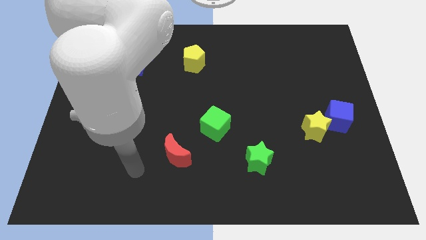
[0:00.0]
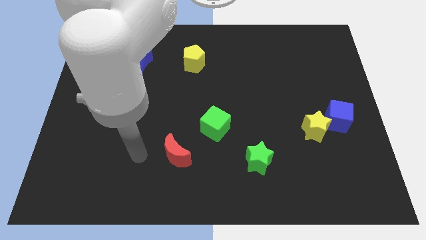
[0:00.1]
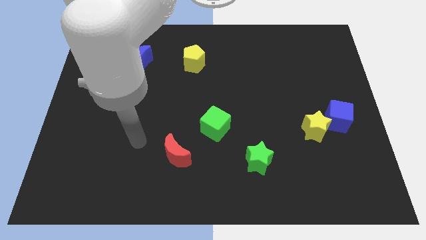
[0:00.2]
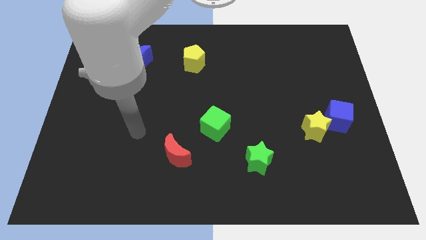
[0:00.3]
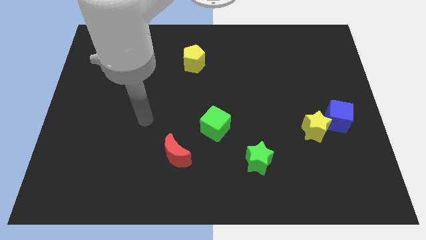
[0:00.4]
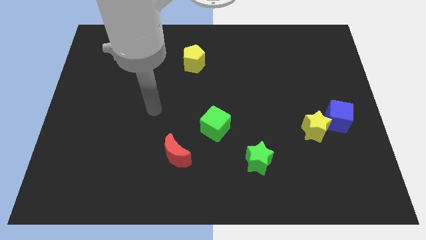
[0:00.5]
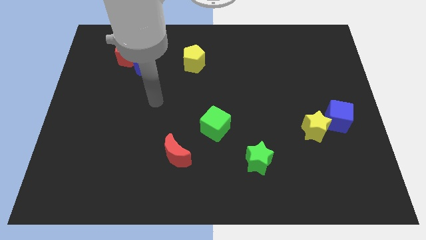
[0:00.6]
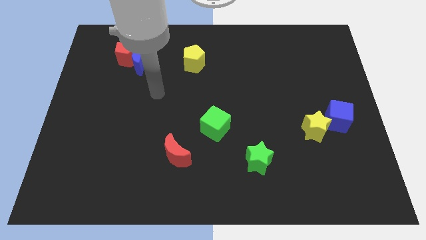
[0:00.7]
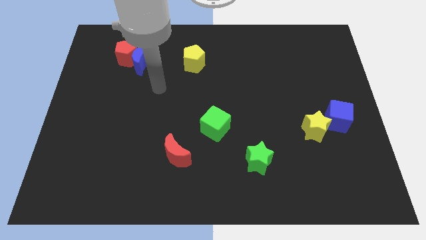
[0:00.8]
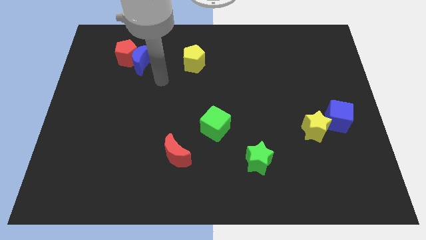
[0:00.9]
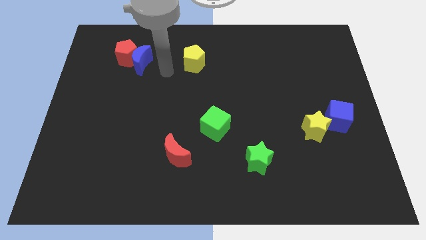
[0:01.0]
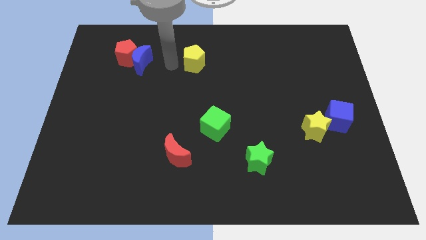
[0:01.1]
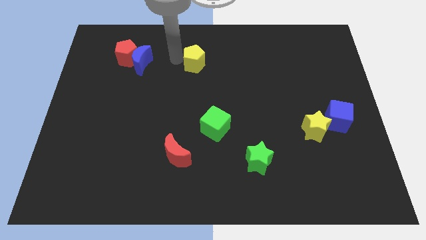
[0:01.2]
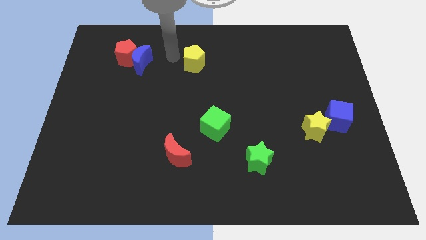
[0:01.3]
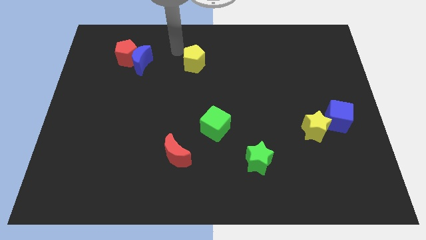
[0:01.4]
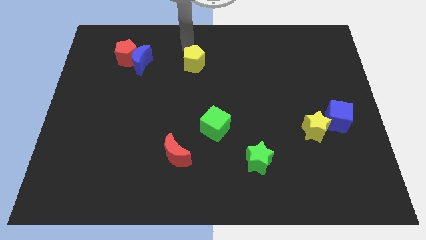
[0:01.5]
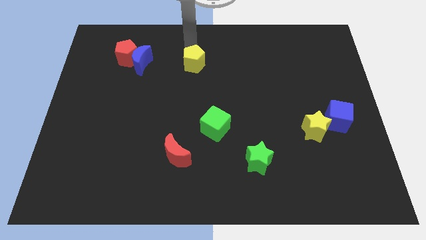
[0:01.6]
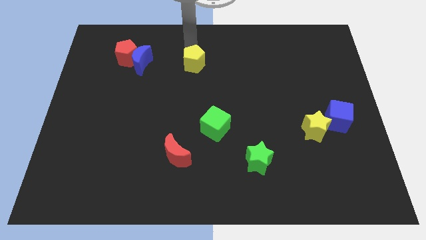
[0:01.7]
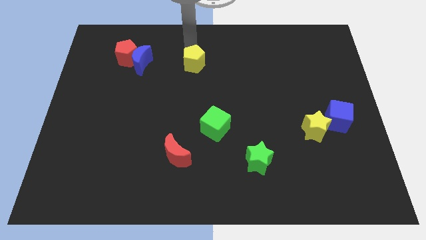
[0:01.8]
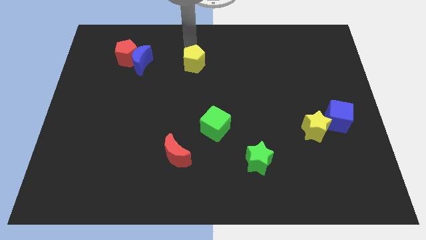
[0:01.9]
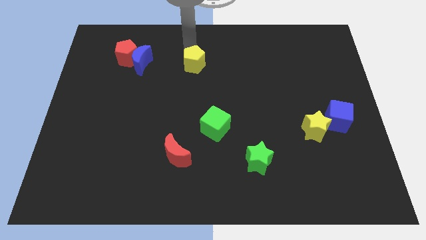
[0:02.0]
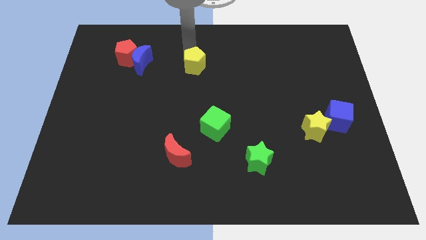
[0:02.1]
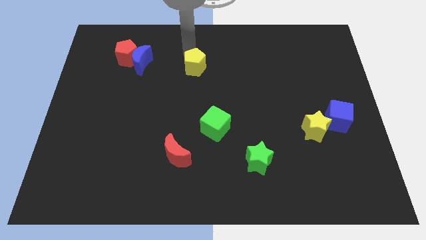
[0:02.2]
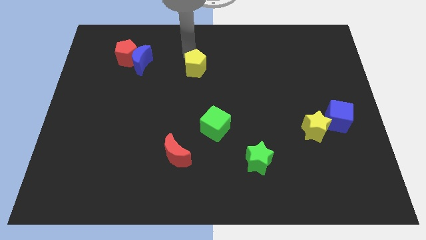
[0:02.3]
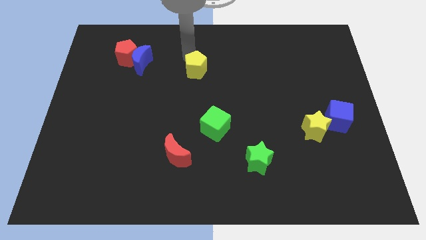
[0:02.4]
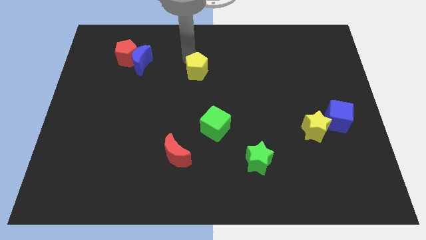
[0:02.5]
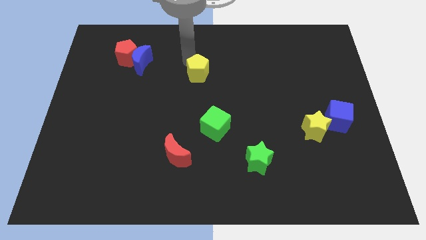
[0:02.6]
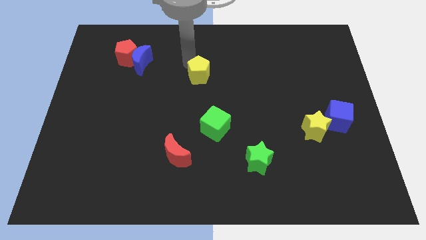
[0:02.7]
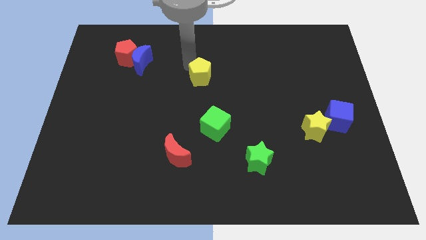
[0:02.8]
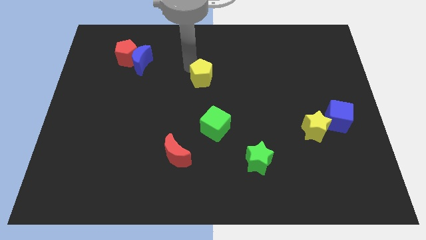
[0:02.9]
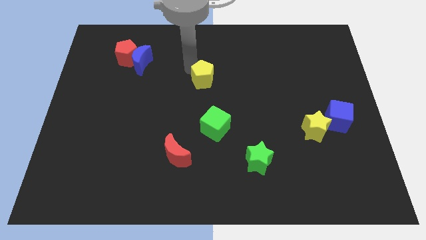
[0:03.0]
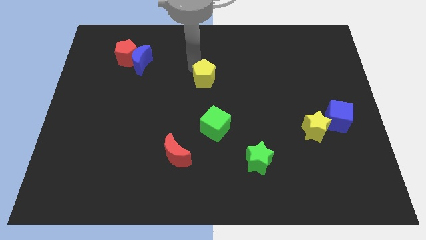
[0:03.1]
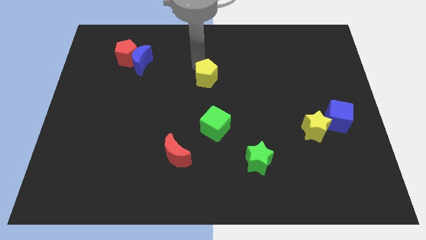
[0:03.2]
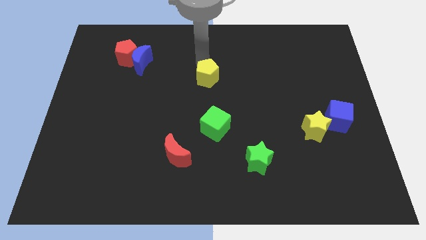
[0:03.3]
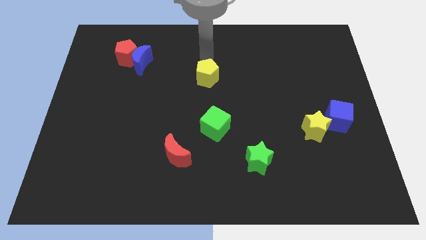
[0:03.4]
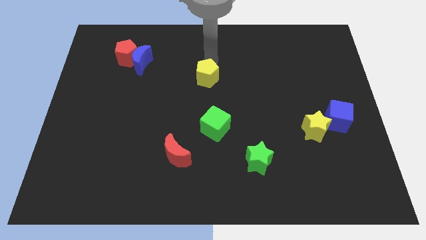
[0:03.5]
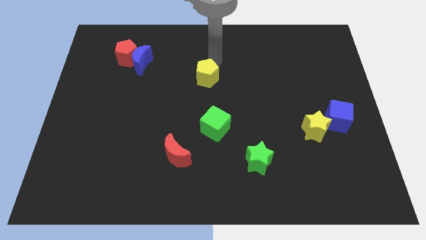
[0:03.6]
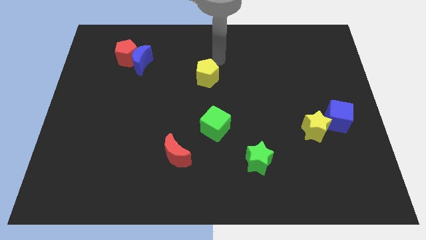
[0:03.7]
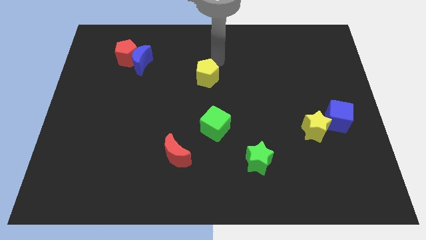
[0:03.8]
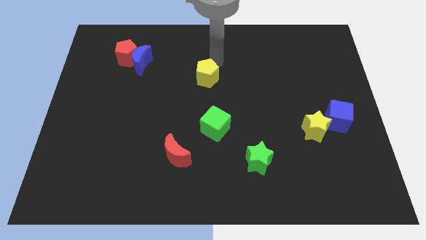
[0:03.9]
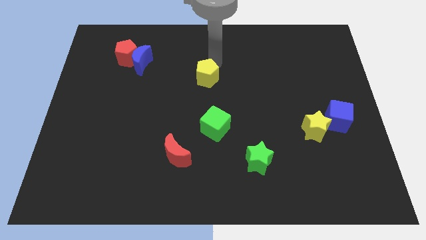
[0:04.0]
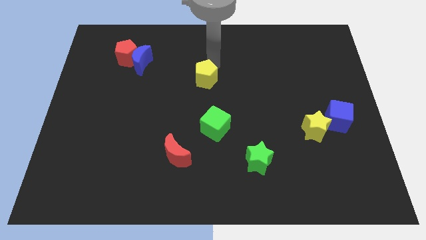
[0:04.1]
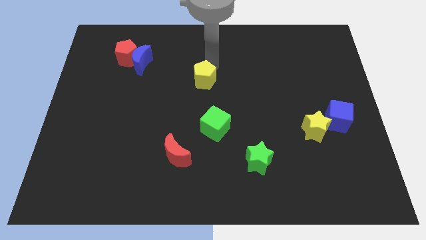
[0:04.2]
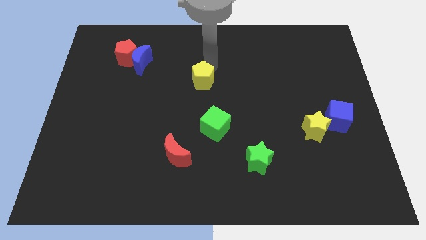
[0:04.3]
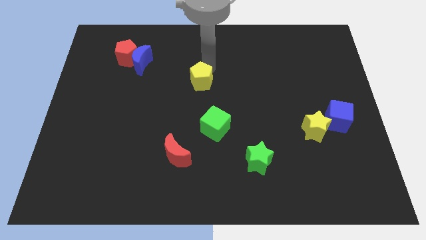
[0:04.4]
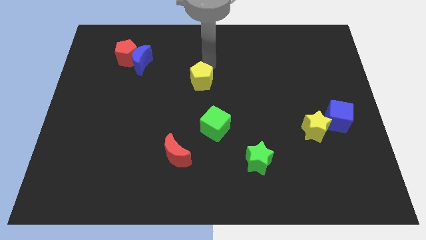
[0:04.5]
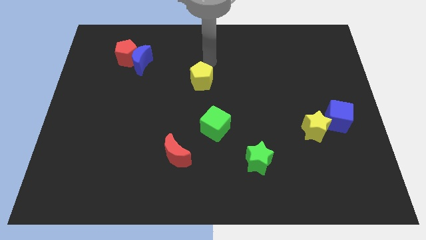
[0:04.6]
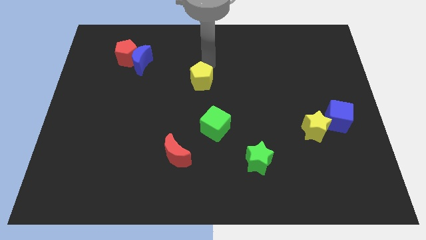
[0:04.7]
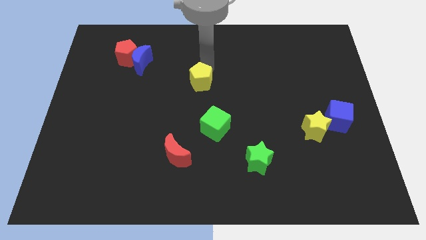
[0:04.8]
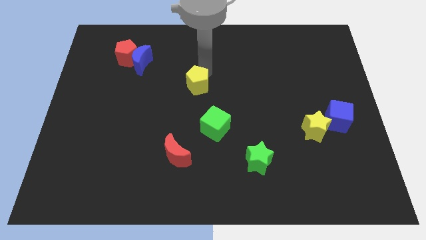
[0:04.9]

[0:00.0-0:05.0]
slide the yellow pentagon downwards slightly

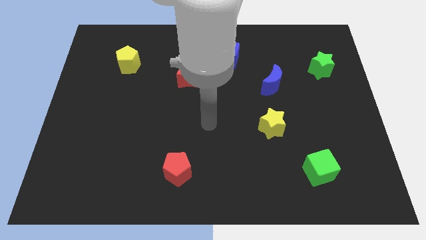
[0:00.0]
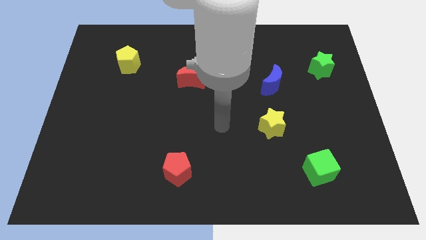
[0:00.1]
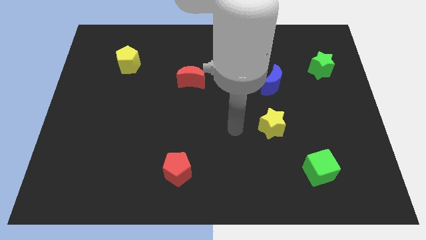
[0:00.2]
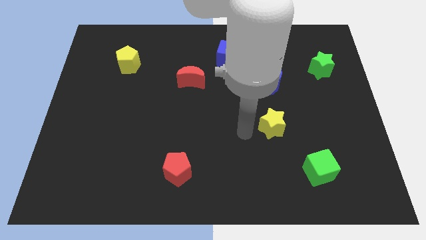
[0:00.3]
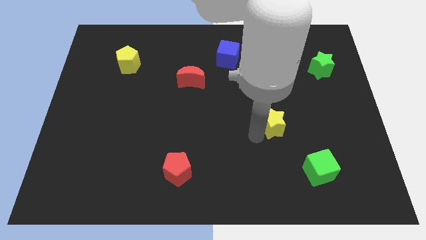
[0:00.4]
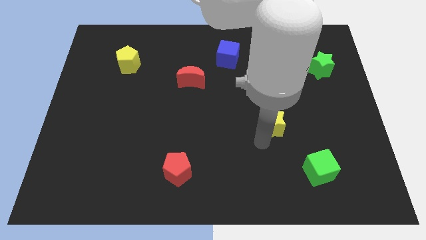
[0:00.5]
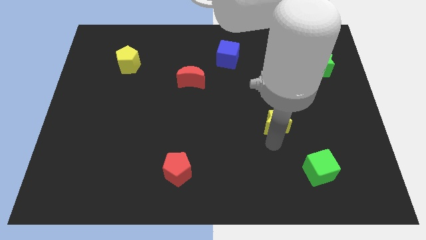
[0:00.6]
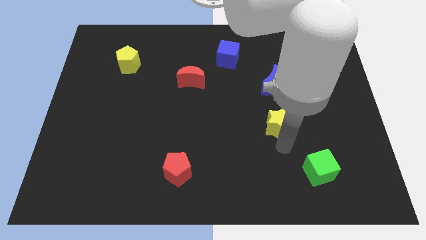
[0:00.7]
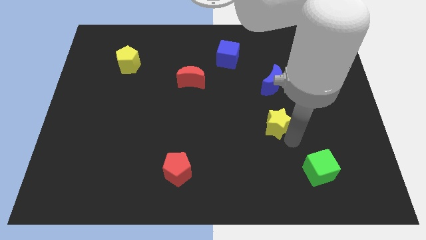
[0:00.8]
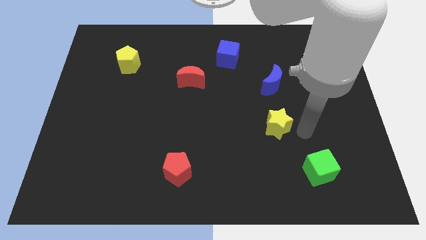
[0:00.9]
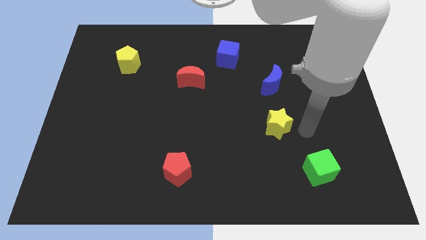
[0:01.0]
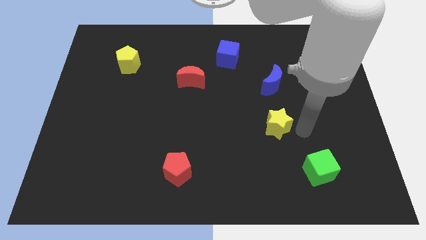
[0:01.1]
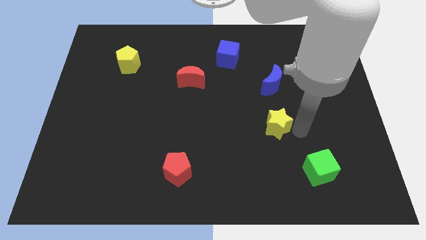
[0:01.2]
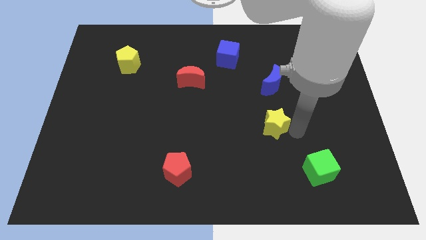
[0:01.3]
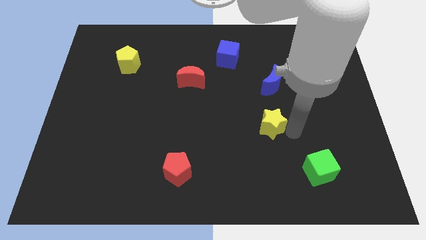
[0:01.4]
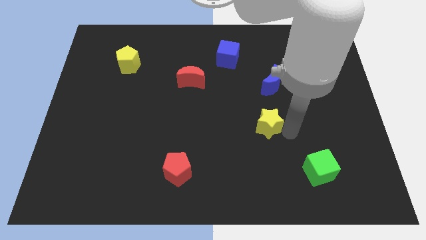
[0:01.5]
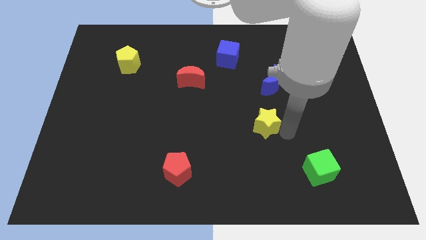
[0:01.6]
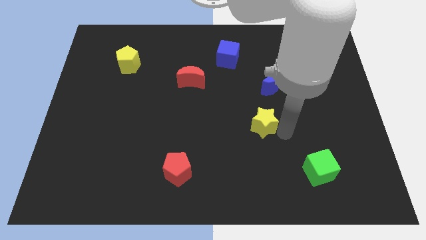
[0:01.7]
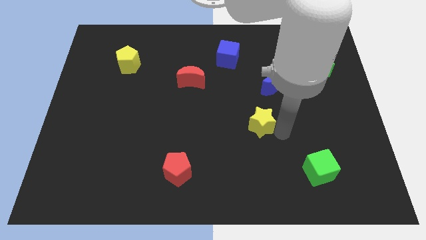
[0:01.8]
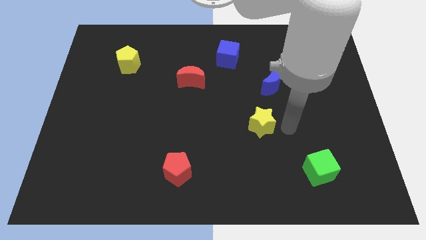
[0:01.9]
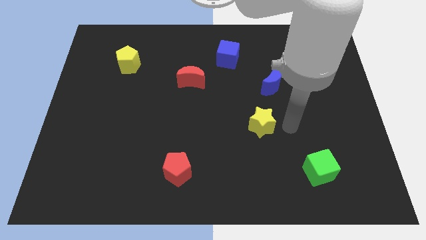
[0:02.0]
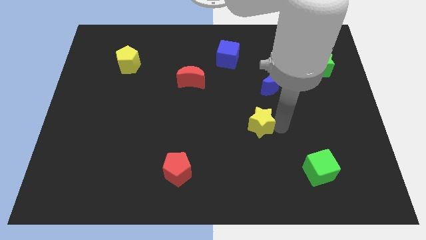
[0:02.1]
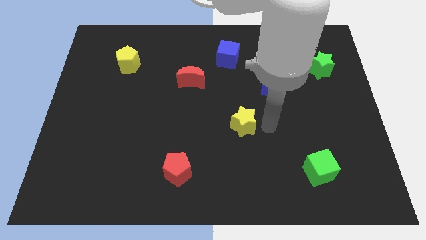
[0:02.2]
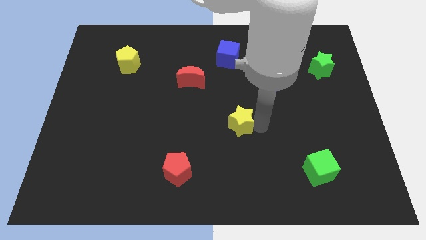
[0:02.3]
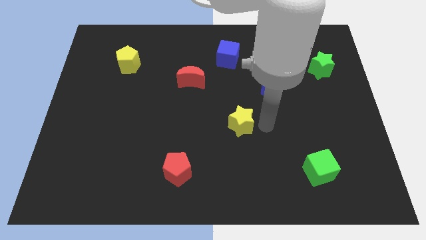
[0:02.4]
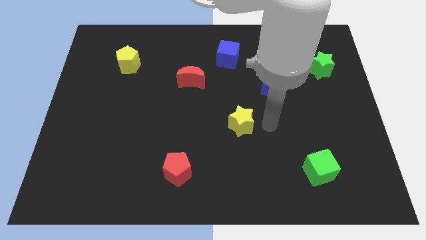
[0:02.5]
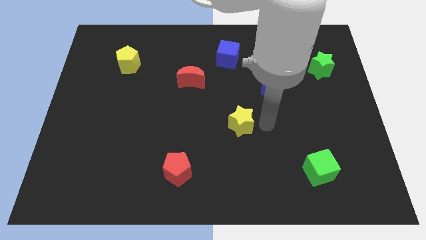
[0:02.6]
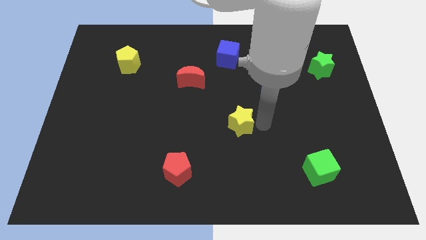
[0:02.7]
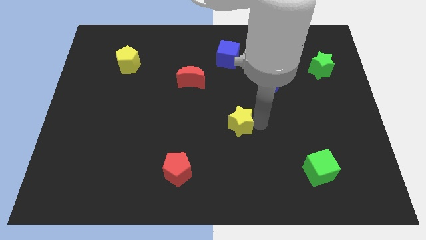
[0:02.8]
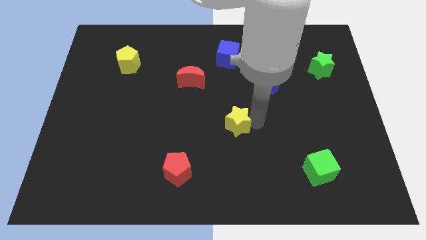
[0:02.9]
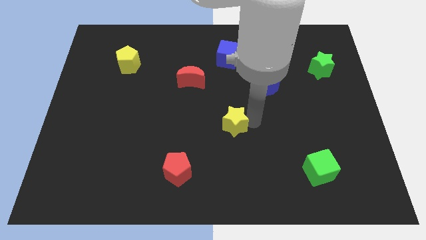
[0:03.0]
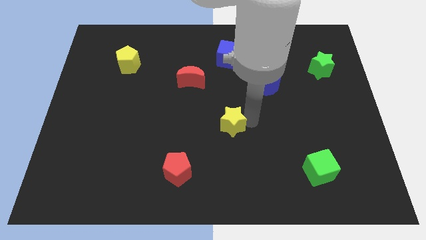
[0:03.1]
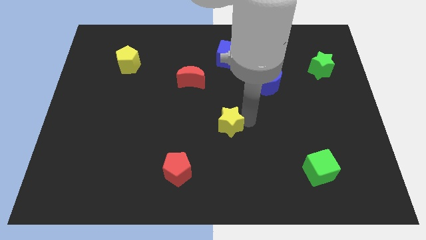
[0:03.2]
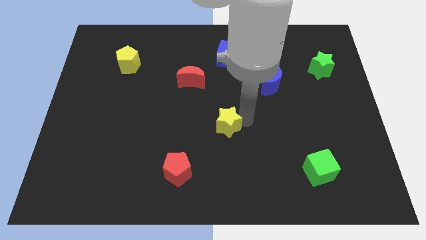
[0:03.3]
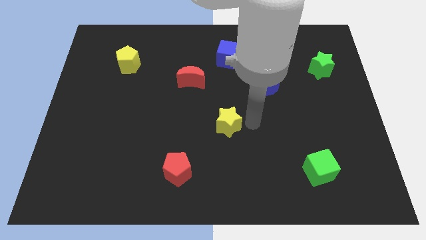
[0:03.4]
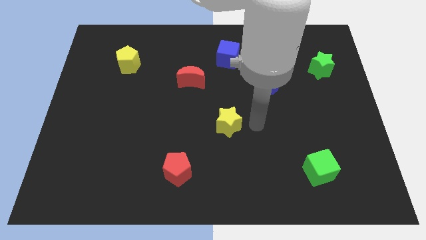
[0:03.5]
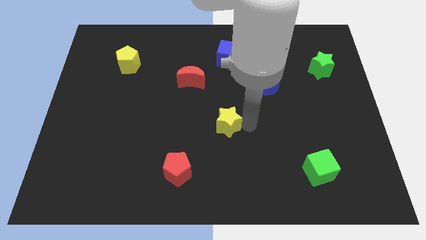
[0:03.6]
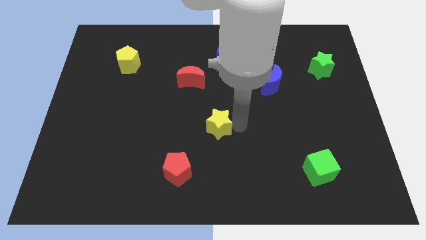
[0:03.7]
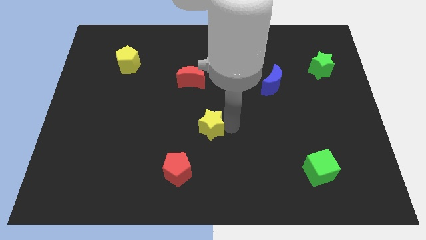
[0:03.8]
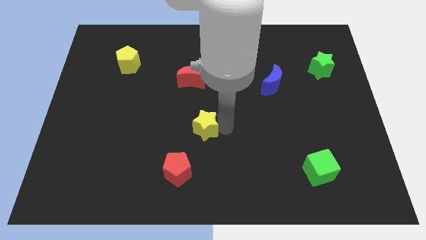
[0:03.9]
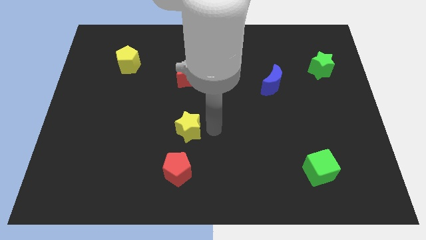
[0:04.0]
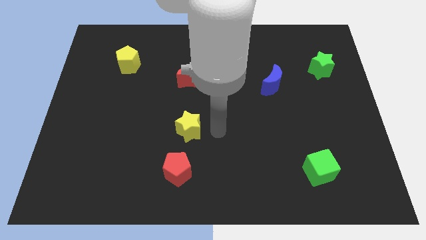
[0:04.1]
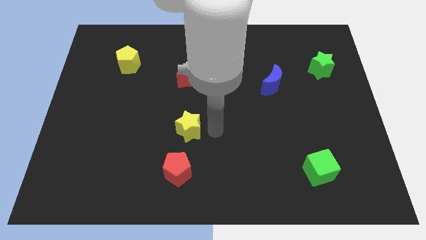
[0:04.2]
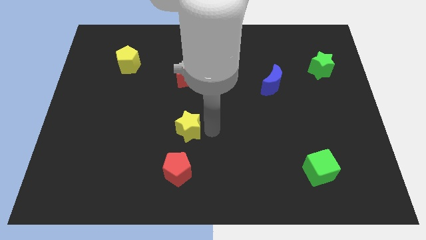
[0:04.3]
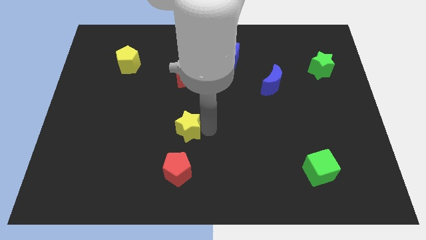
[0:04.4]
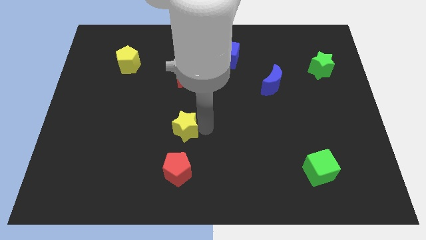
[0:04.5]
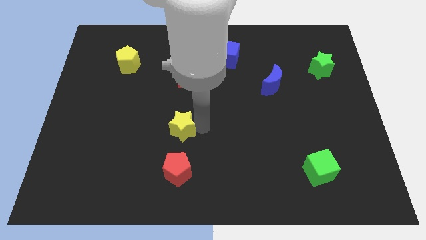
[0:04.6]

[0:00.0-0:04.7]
move the yellow star to the left
